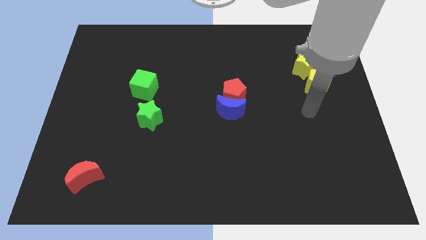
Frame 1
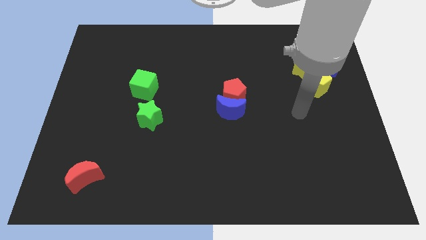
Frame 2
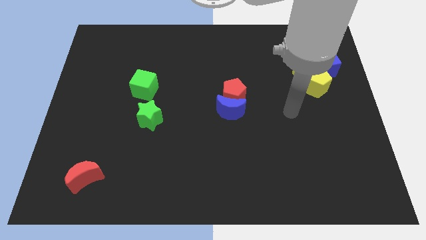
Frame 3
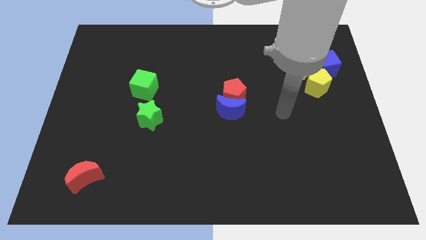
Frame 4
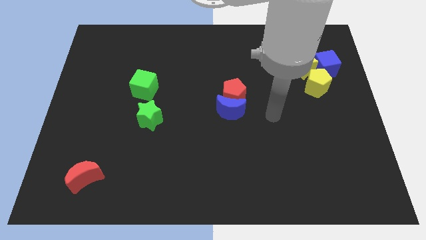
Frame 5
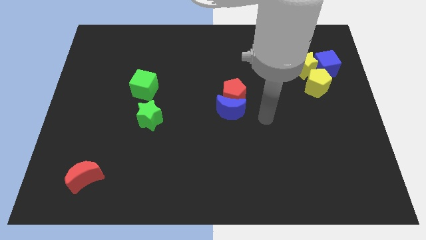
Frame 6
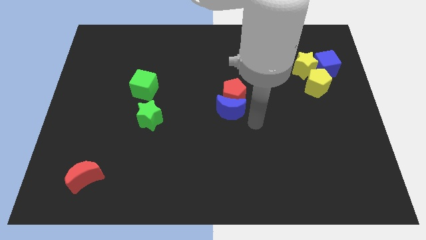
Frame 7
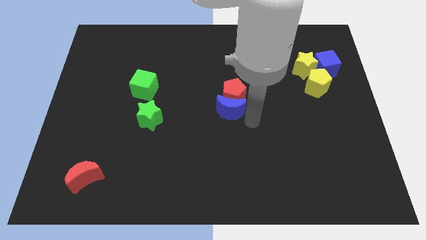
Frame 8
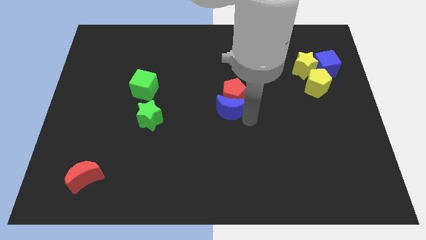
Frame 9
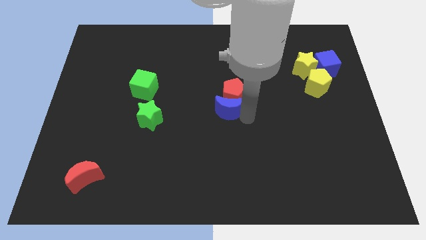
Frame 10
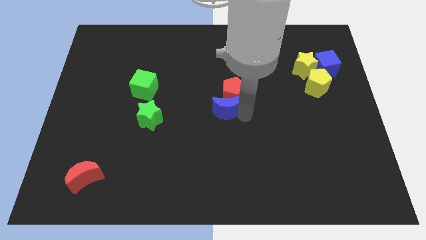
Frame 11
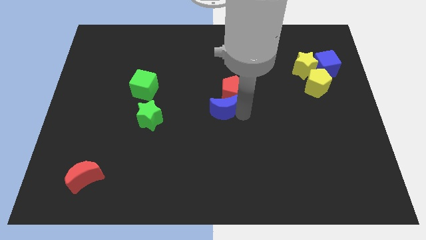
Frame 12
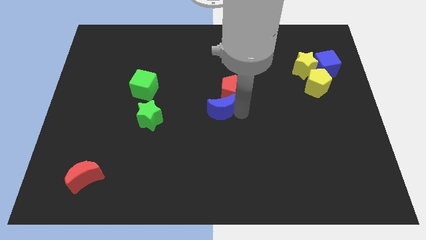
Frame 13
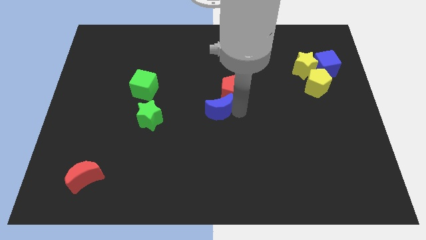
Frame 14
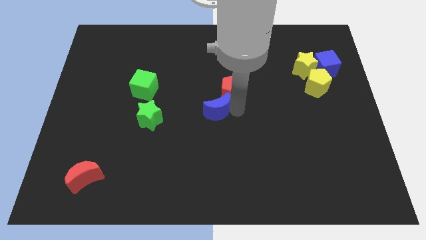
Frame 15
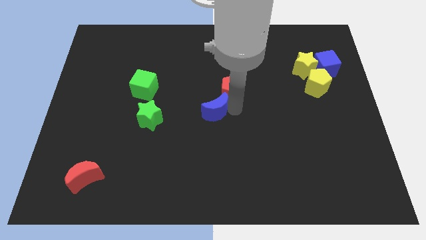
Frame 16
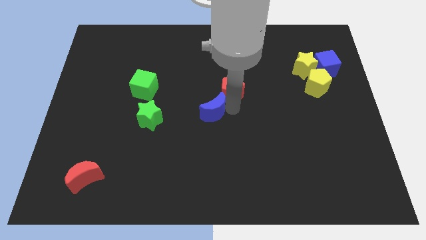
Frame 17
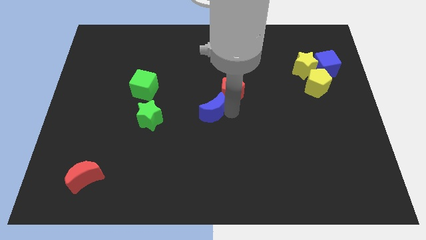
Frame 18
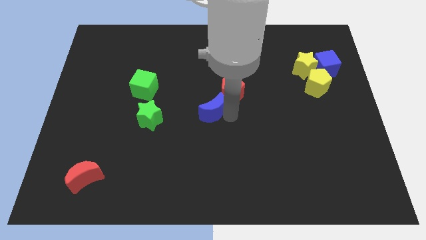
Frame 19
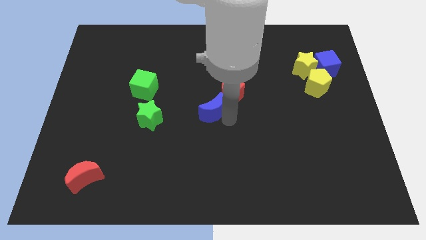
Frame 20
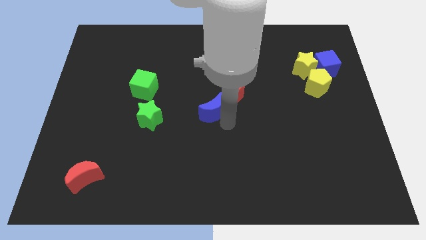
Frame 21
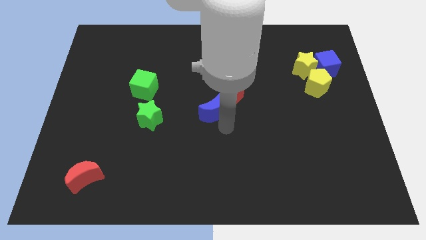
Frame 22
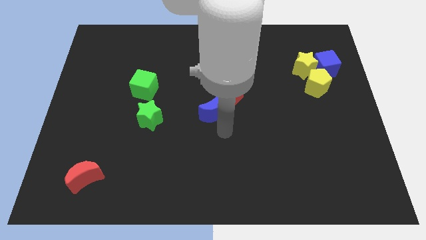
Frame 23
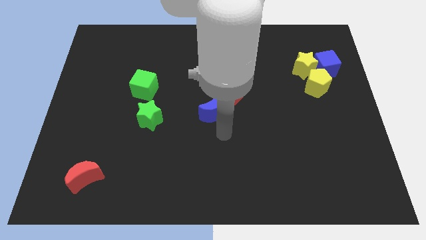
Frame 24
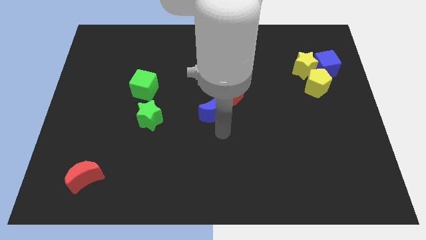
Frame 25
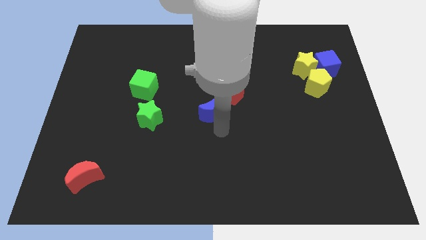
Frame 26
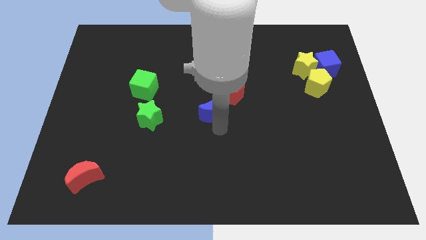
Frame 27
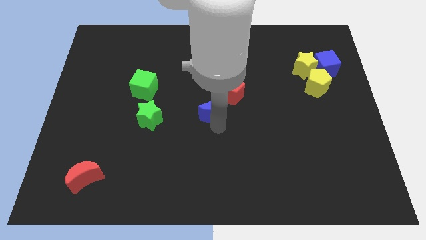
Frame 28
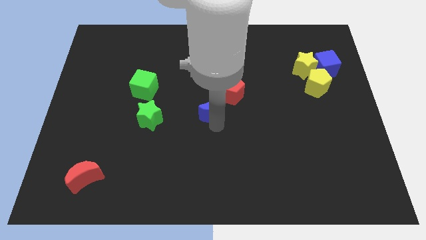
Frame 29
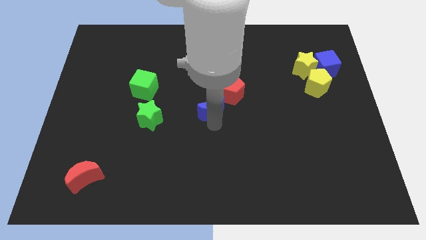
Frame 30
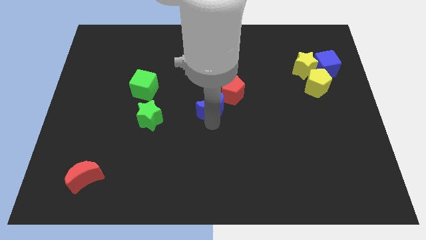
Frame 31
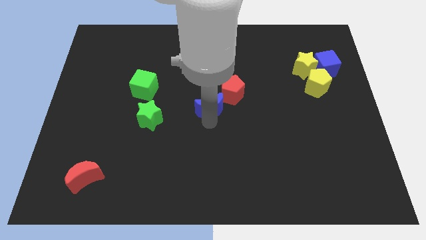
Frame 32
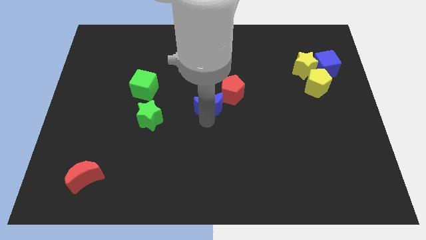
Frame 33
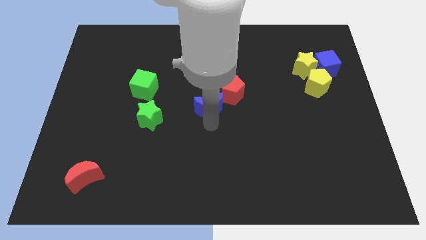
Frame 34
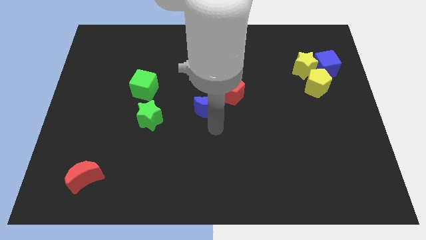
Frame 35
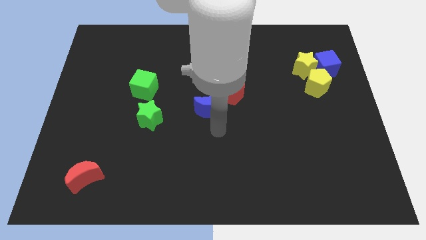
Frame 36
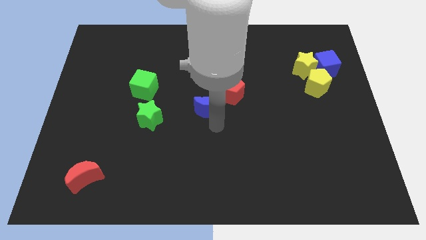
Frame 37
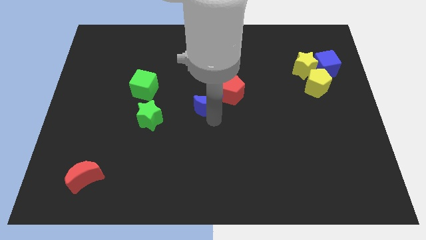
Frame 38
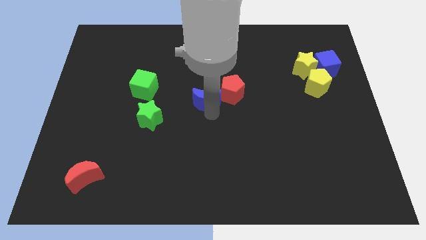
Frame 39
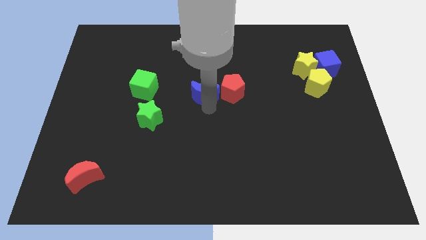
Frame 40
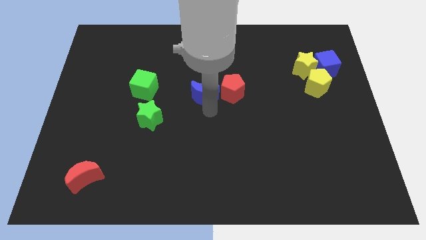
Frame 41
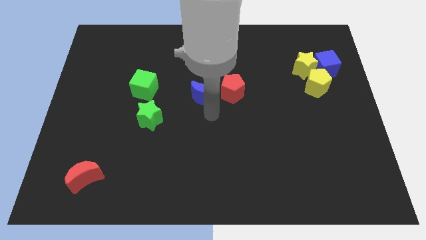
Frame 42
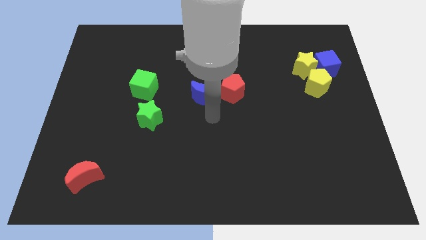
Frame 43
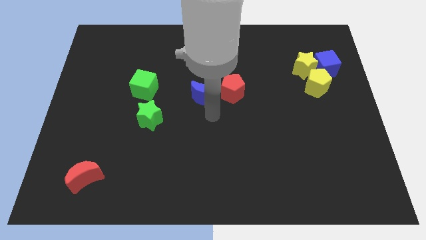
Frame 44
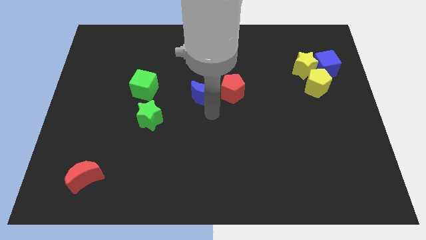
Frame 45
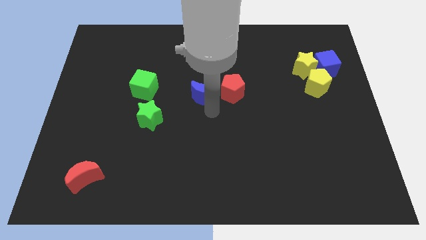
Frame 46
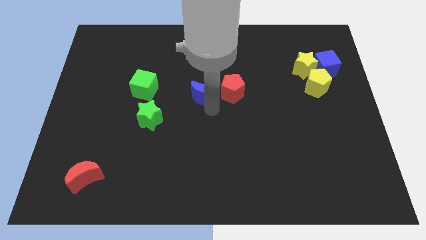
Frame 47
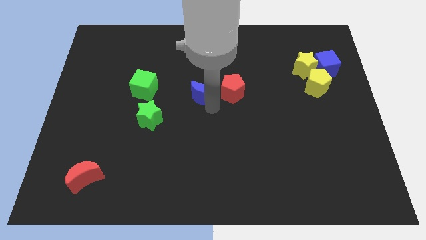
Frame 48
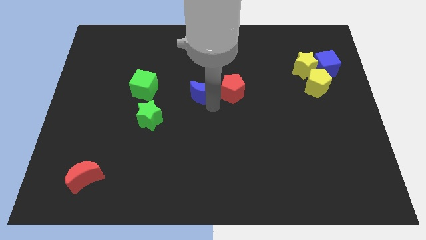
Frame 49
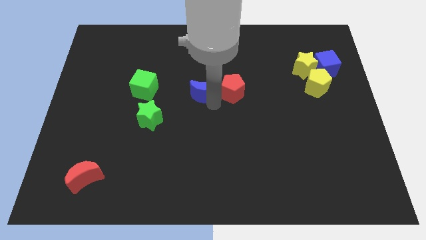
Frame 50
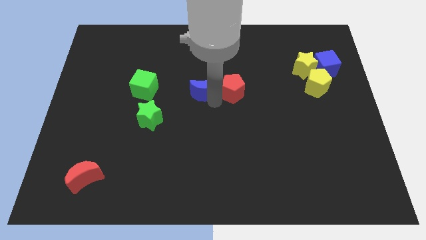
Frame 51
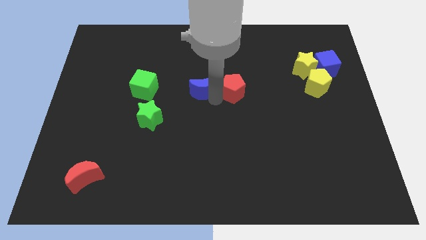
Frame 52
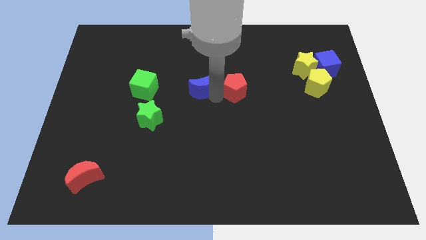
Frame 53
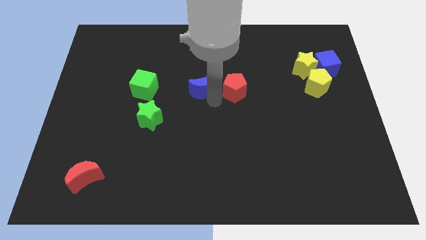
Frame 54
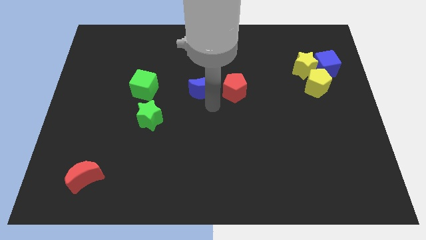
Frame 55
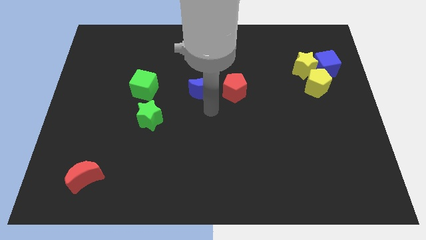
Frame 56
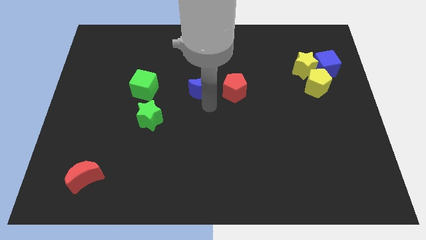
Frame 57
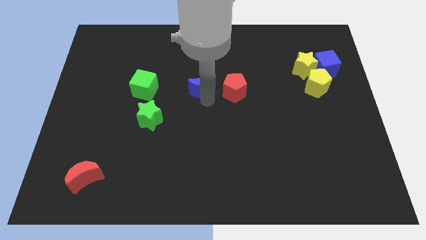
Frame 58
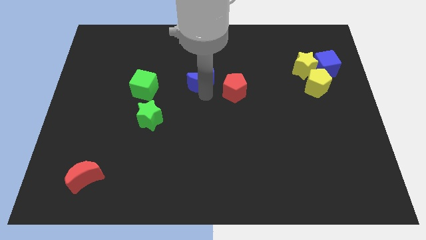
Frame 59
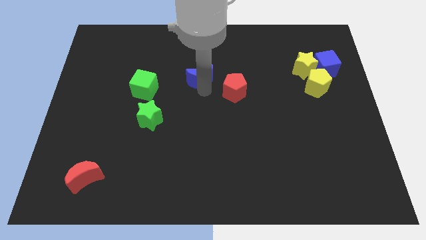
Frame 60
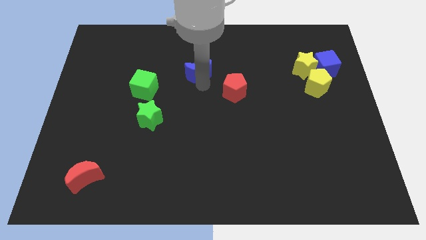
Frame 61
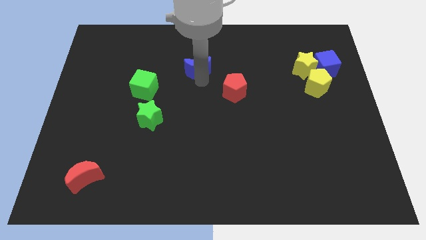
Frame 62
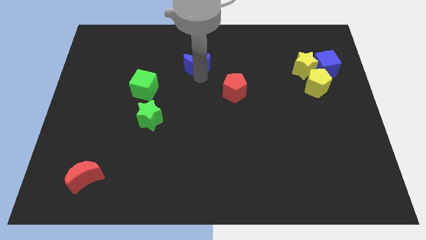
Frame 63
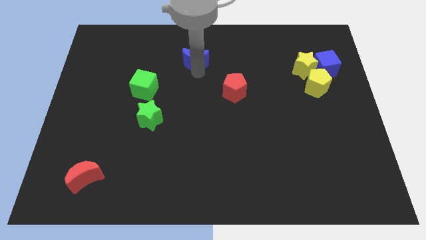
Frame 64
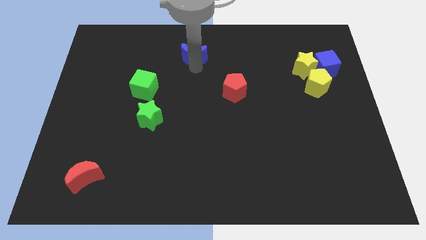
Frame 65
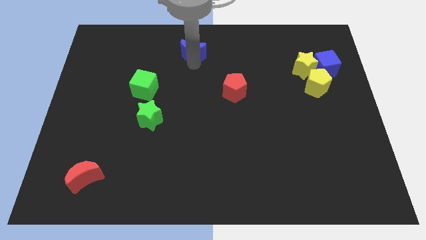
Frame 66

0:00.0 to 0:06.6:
push the blue moon to the top

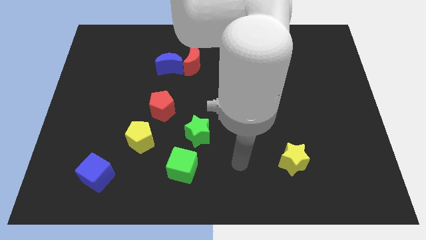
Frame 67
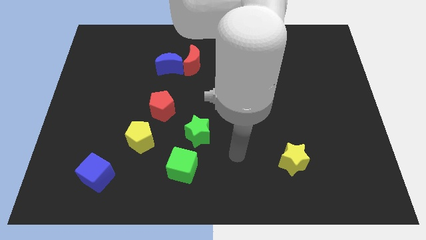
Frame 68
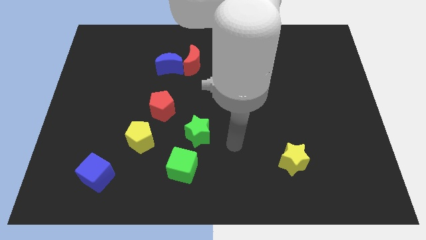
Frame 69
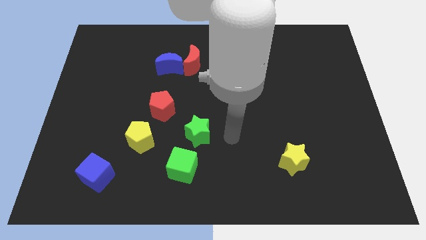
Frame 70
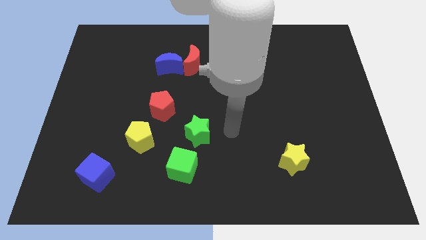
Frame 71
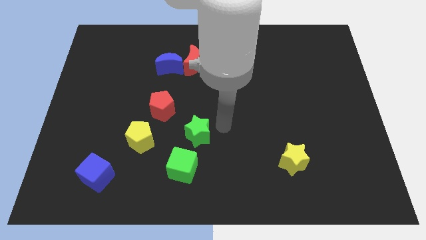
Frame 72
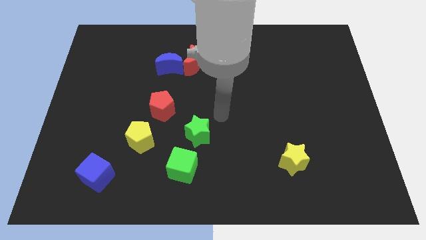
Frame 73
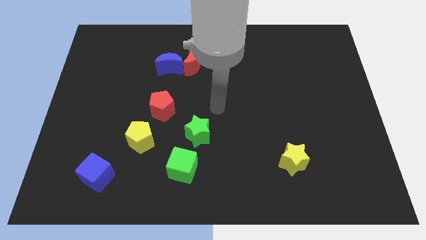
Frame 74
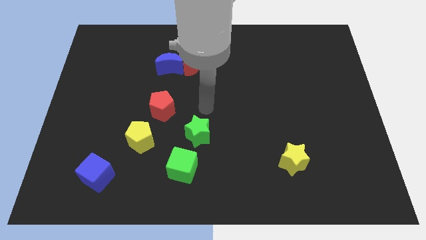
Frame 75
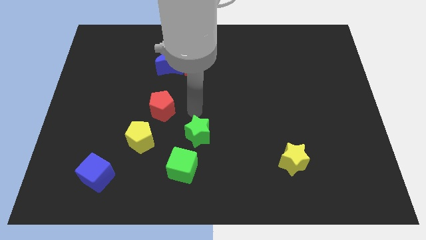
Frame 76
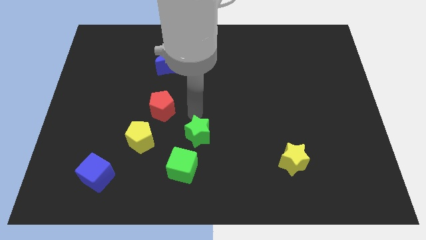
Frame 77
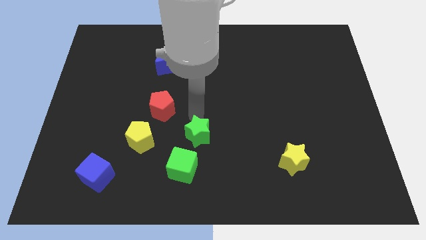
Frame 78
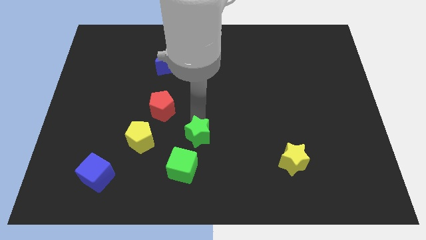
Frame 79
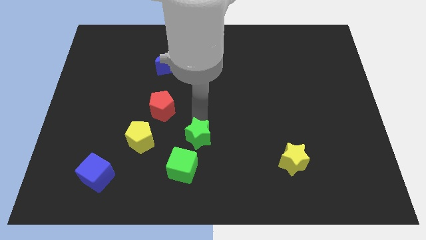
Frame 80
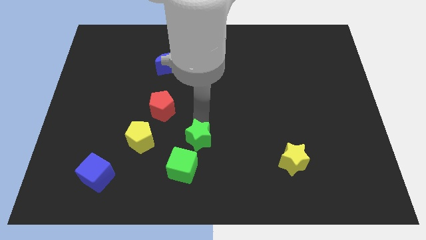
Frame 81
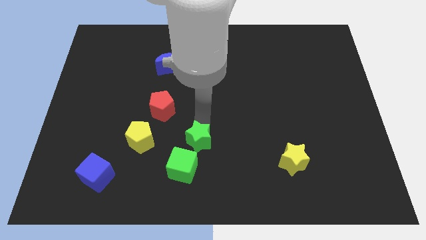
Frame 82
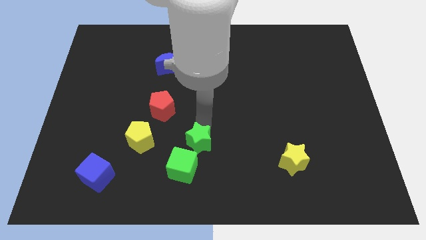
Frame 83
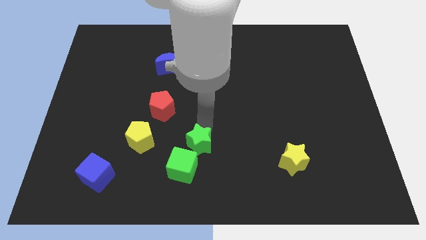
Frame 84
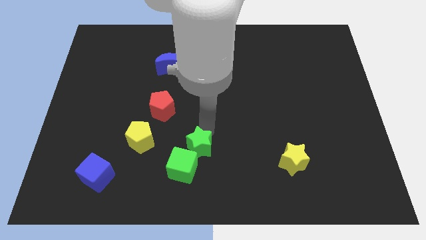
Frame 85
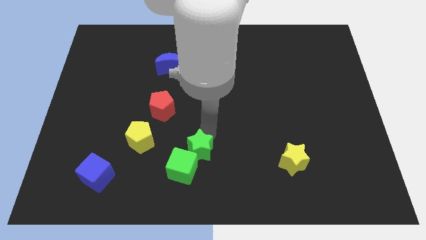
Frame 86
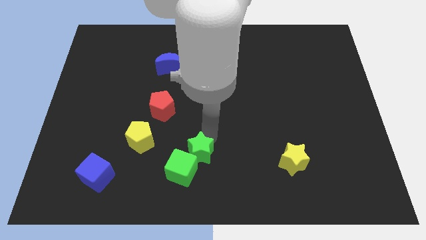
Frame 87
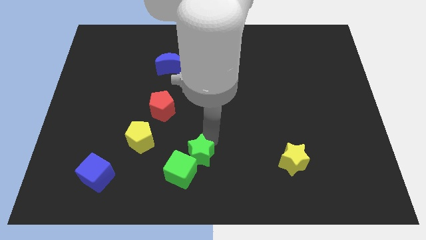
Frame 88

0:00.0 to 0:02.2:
slide the green star to the bottom side
